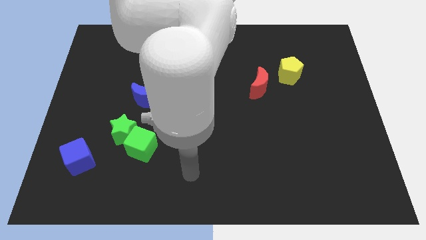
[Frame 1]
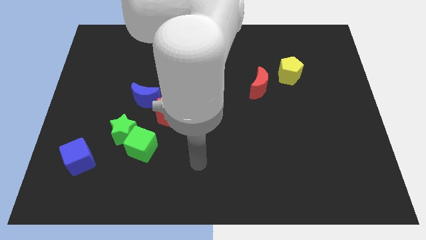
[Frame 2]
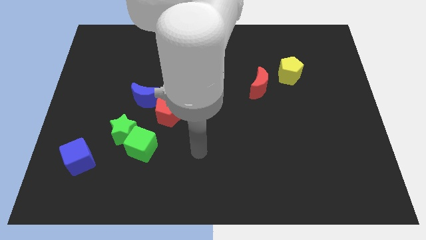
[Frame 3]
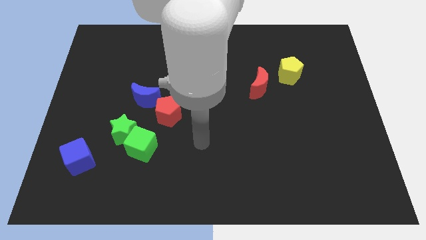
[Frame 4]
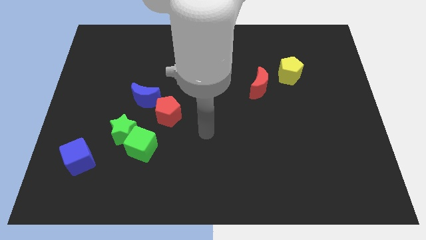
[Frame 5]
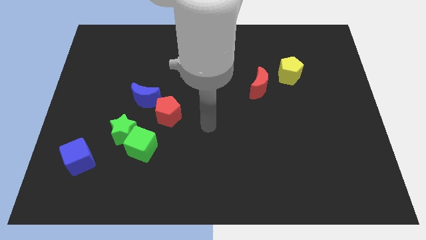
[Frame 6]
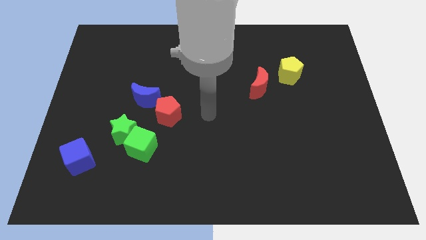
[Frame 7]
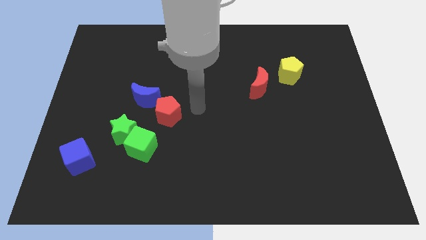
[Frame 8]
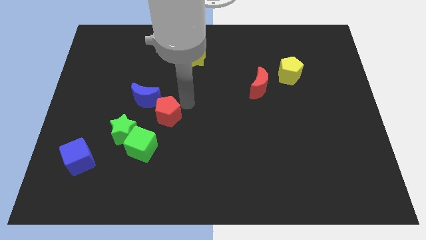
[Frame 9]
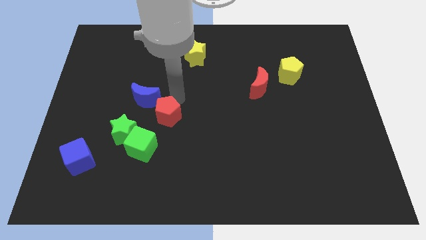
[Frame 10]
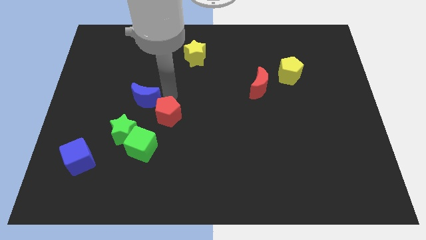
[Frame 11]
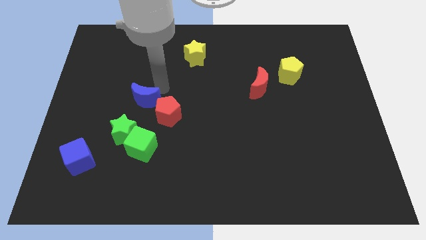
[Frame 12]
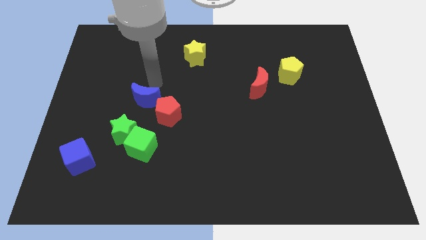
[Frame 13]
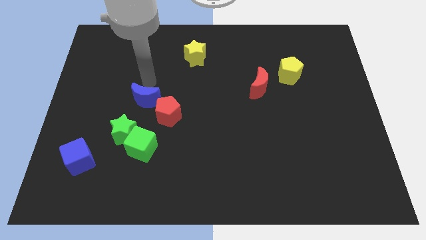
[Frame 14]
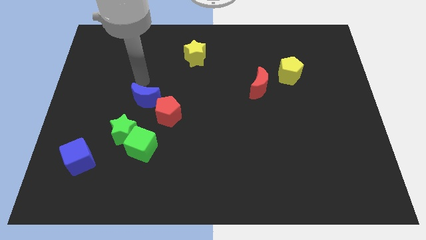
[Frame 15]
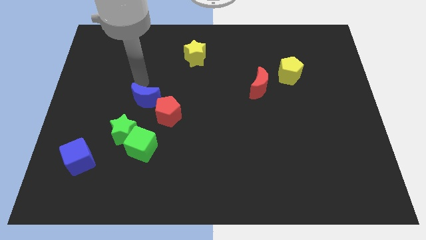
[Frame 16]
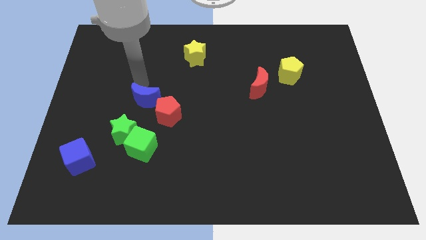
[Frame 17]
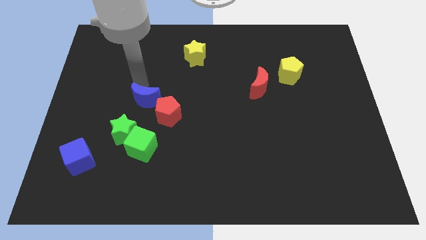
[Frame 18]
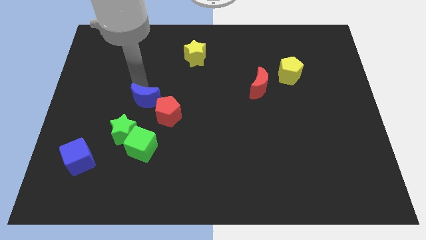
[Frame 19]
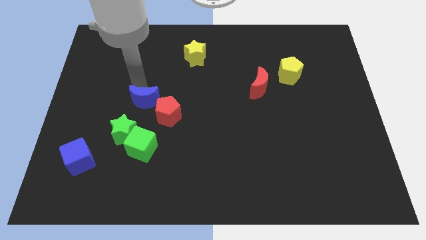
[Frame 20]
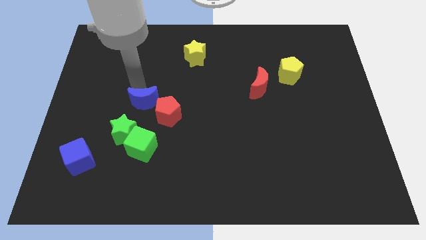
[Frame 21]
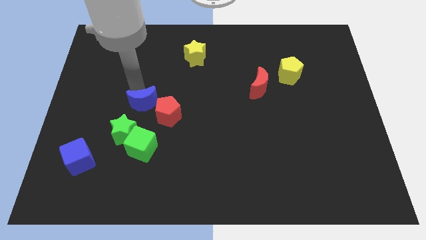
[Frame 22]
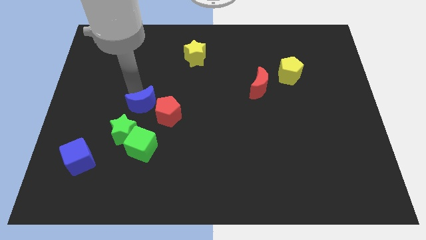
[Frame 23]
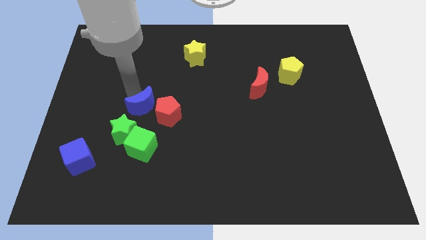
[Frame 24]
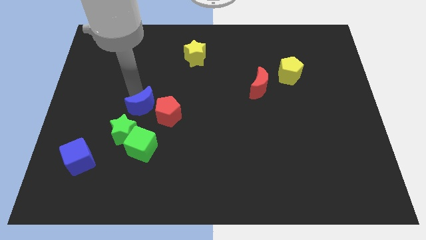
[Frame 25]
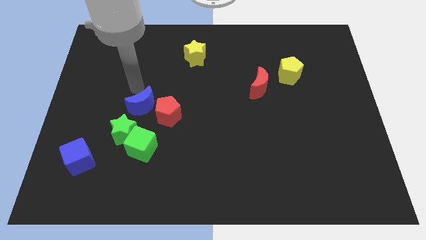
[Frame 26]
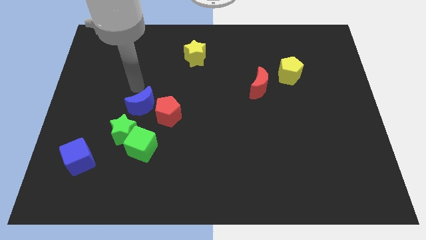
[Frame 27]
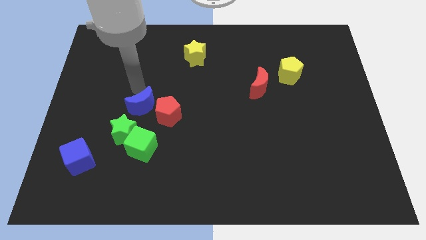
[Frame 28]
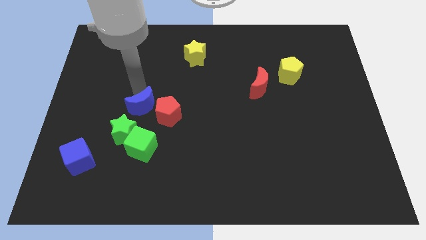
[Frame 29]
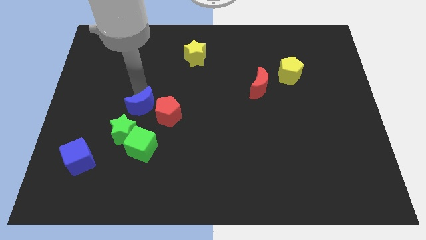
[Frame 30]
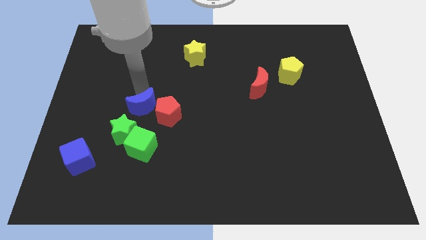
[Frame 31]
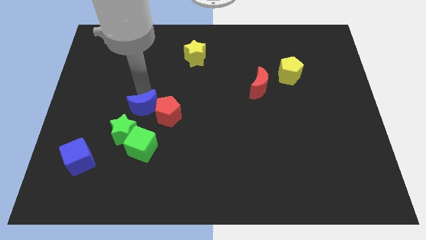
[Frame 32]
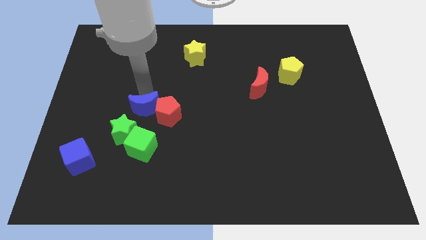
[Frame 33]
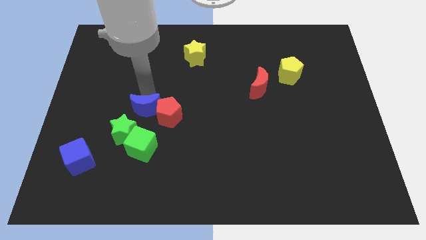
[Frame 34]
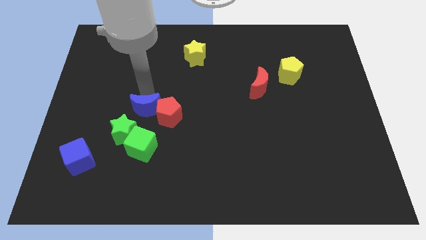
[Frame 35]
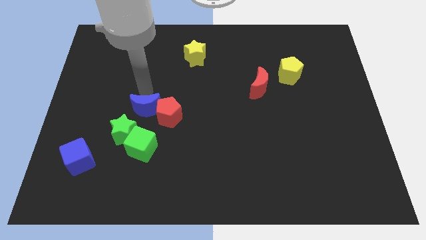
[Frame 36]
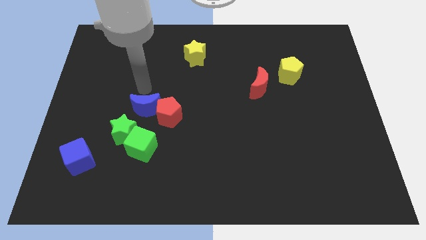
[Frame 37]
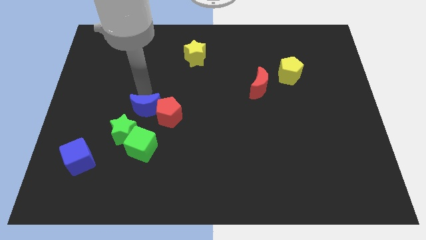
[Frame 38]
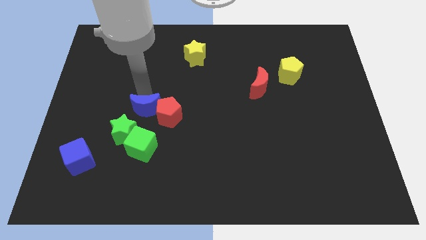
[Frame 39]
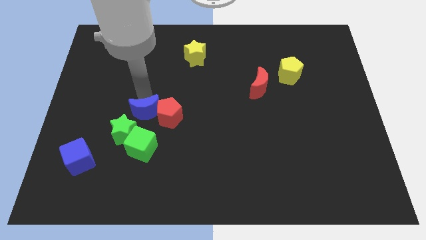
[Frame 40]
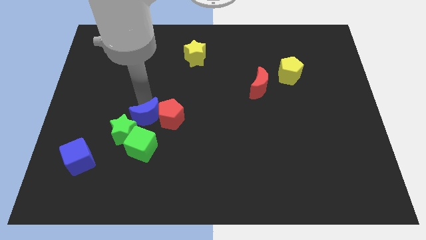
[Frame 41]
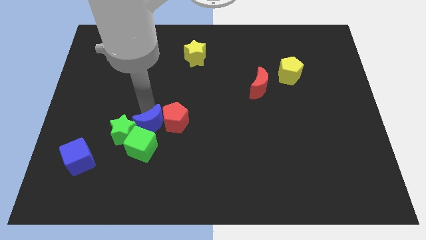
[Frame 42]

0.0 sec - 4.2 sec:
move the blue moon close to the green cube

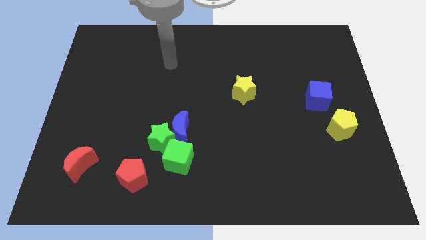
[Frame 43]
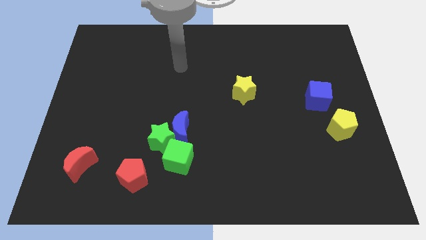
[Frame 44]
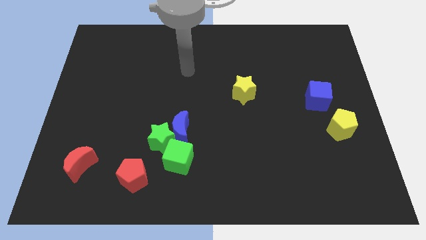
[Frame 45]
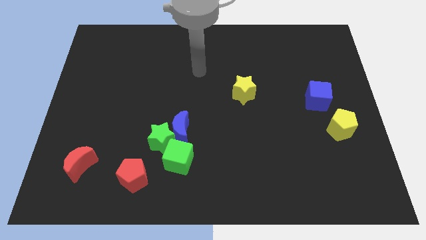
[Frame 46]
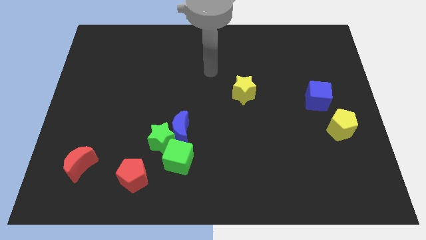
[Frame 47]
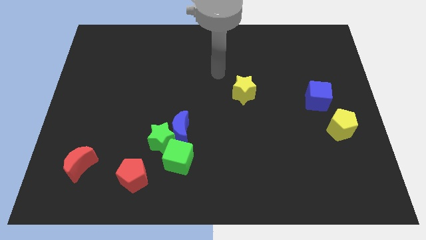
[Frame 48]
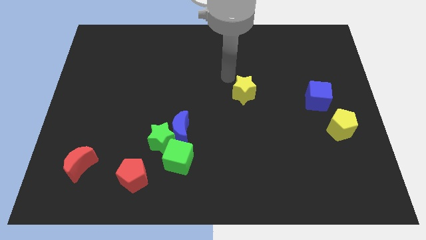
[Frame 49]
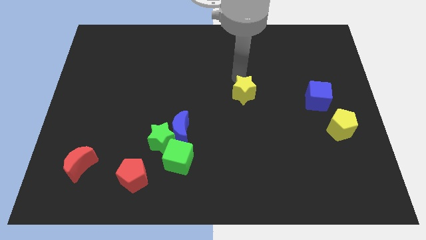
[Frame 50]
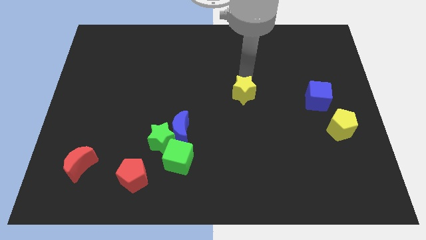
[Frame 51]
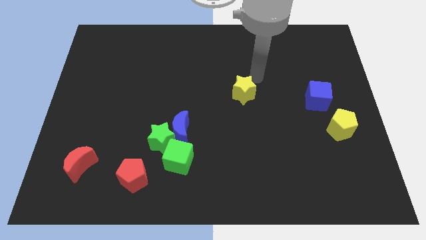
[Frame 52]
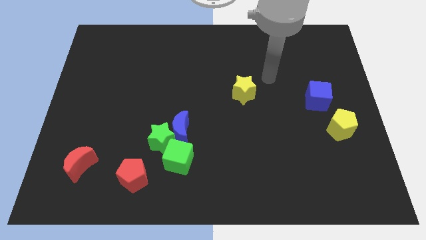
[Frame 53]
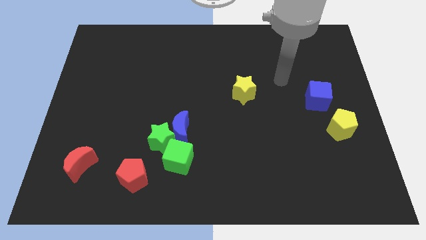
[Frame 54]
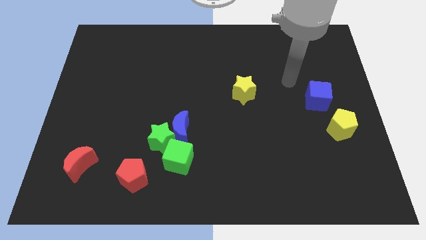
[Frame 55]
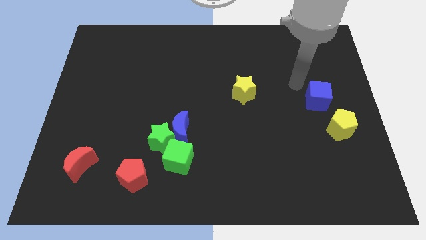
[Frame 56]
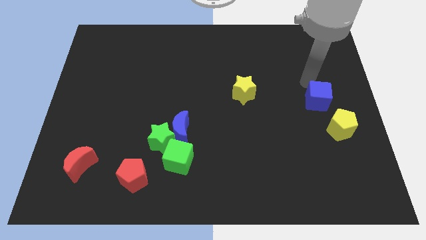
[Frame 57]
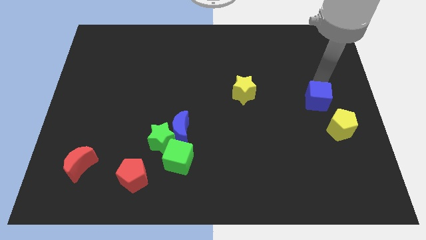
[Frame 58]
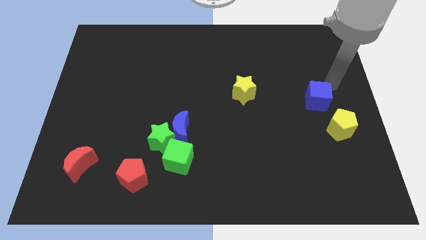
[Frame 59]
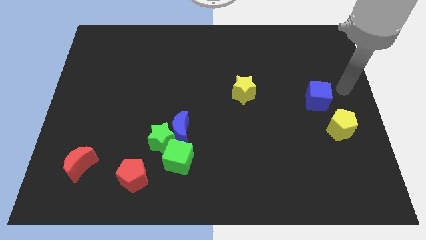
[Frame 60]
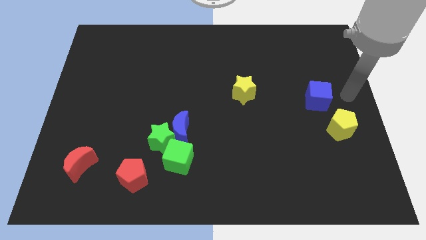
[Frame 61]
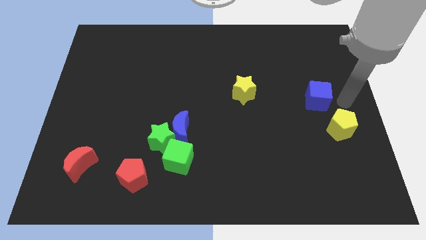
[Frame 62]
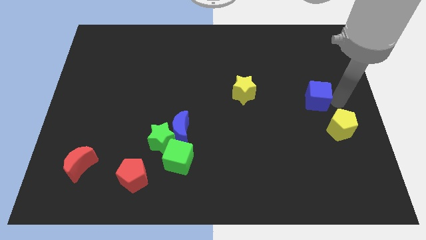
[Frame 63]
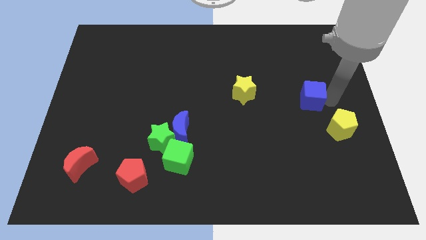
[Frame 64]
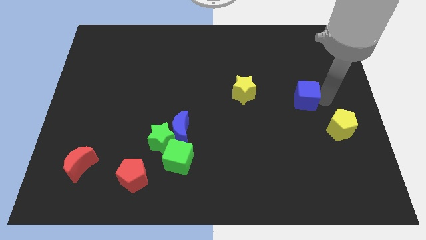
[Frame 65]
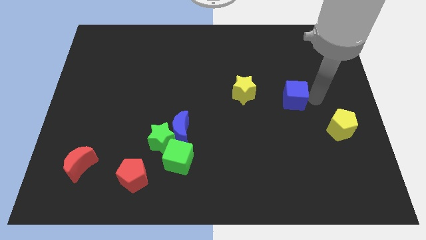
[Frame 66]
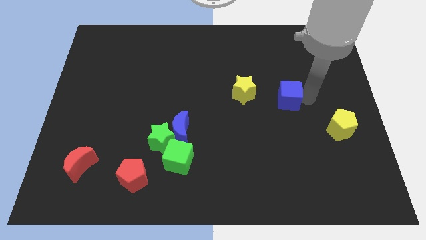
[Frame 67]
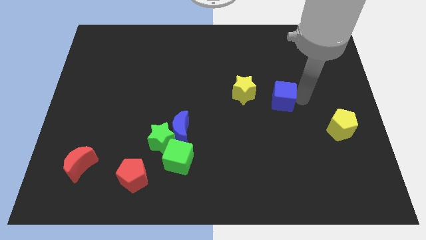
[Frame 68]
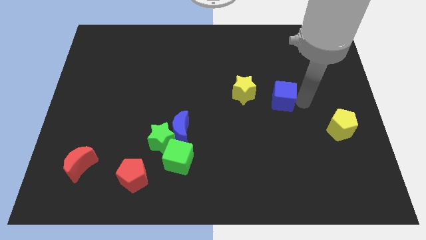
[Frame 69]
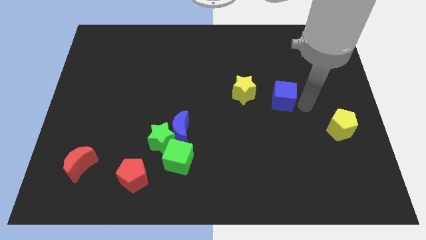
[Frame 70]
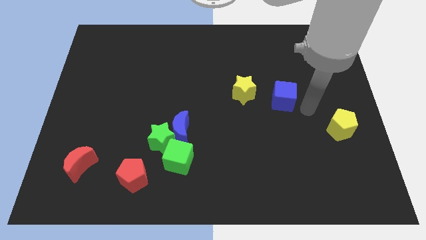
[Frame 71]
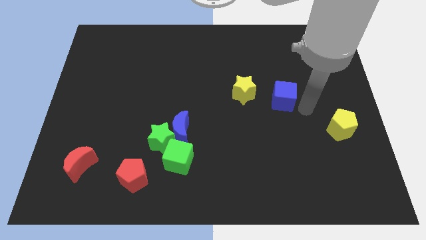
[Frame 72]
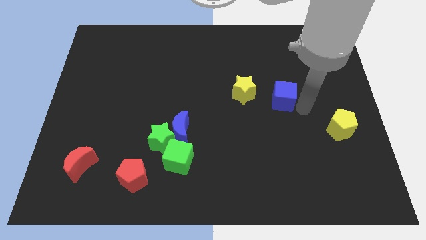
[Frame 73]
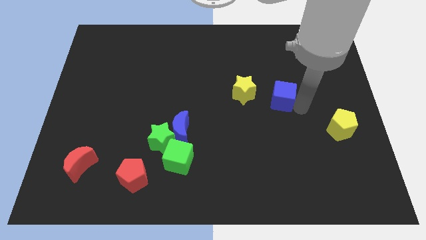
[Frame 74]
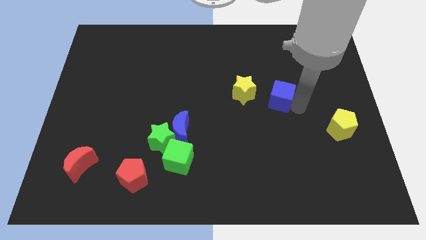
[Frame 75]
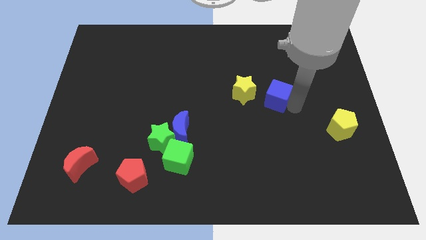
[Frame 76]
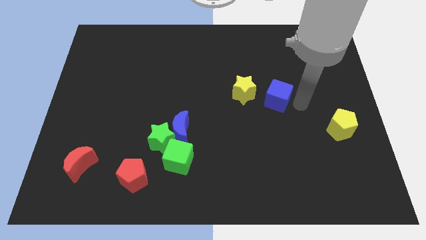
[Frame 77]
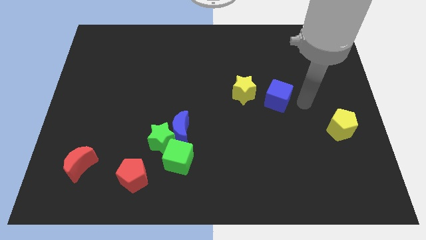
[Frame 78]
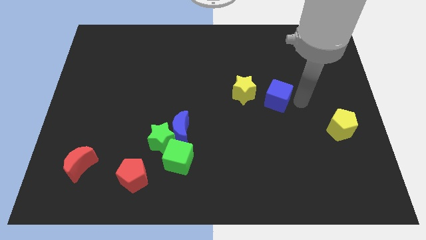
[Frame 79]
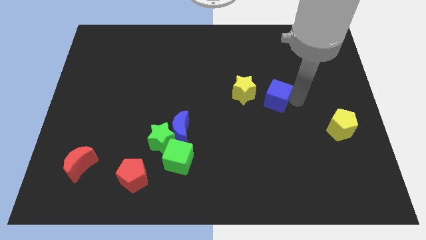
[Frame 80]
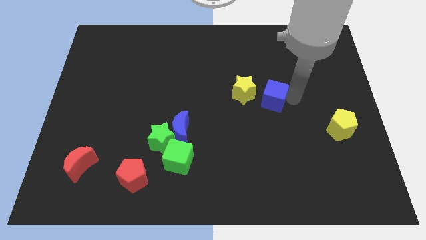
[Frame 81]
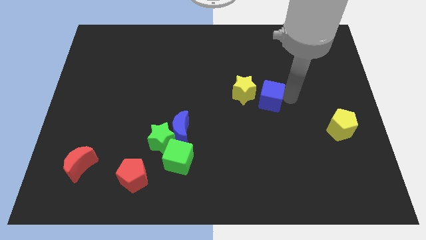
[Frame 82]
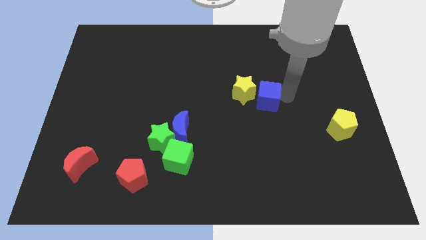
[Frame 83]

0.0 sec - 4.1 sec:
put the blue cube next to the yellow star
